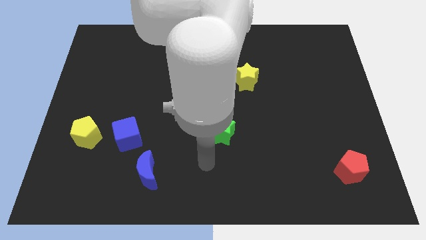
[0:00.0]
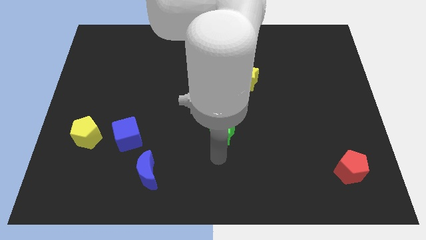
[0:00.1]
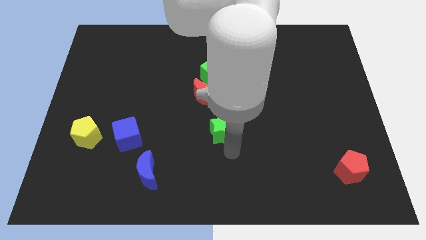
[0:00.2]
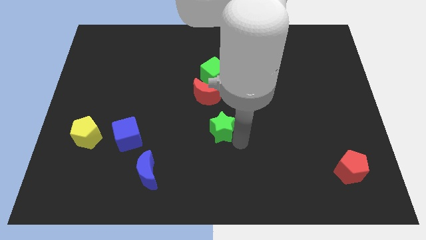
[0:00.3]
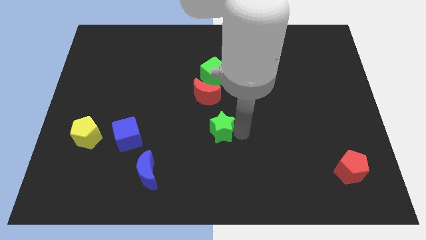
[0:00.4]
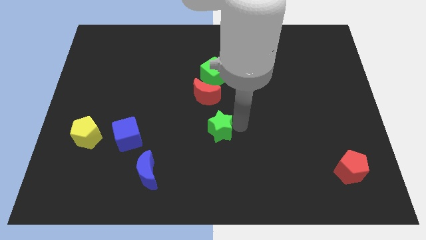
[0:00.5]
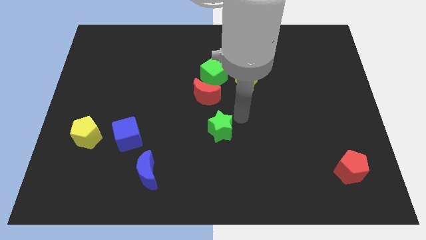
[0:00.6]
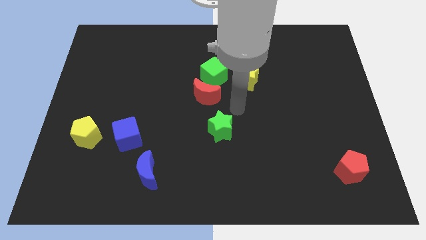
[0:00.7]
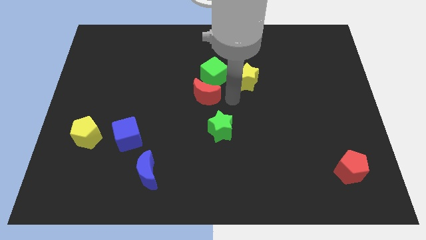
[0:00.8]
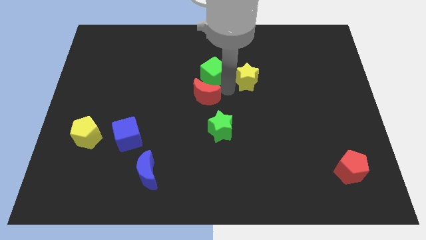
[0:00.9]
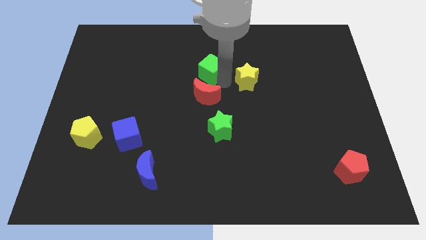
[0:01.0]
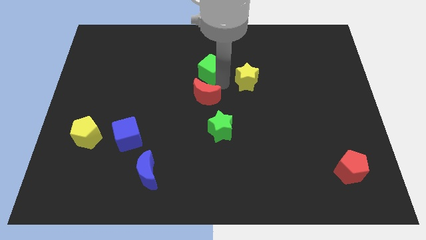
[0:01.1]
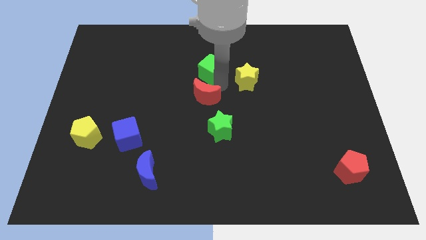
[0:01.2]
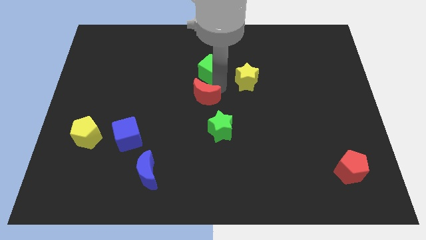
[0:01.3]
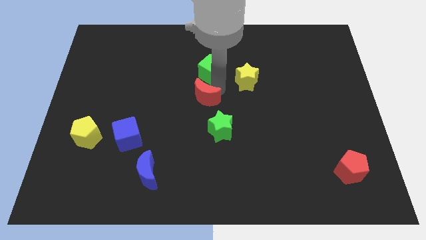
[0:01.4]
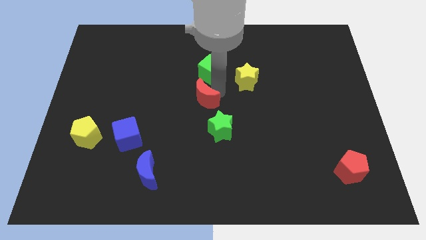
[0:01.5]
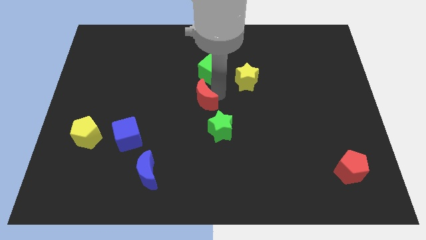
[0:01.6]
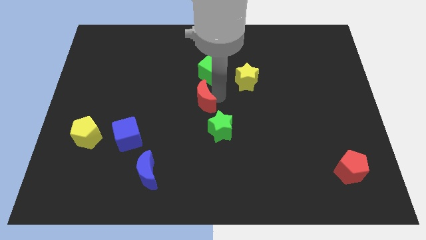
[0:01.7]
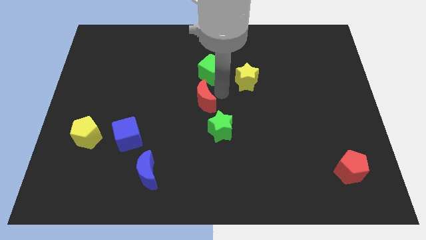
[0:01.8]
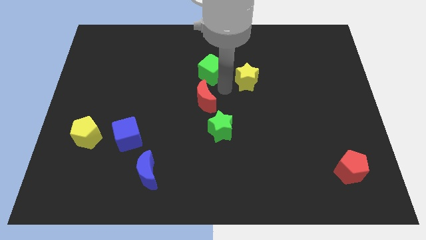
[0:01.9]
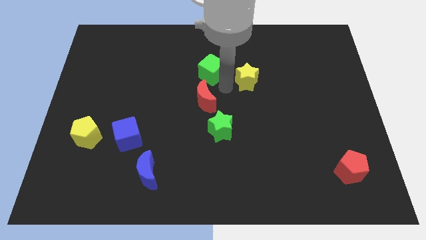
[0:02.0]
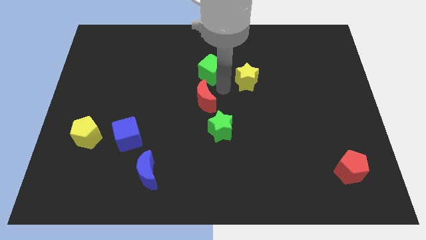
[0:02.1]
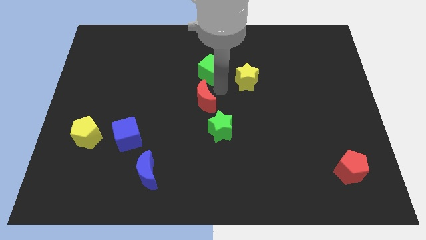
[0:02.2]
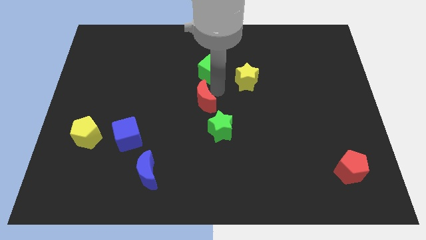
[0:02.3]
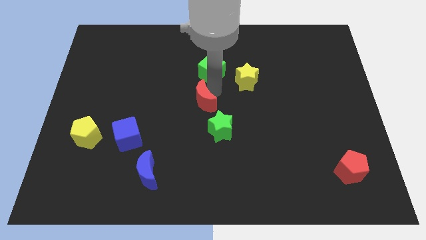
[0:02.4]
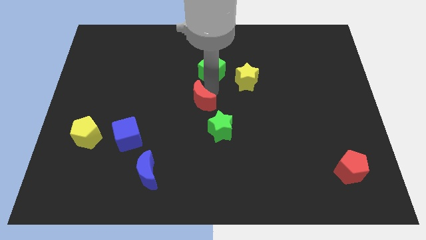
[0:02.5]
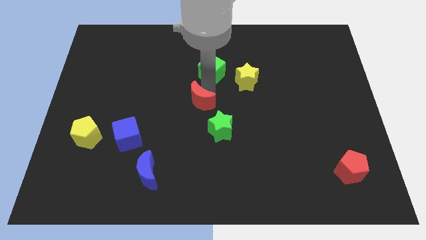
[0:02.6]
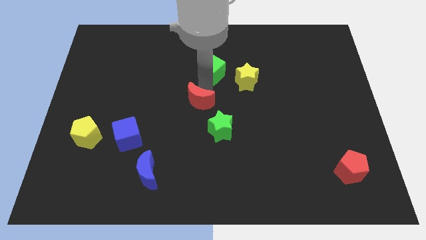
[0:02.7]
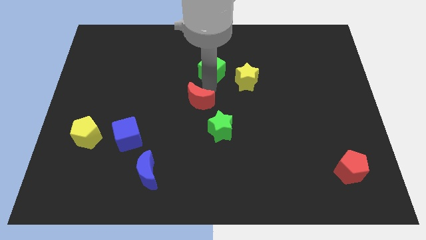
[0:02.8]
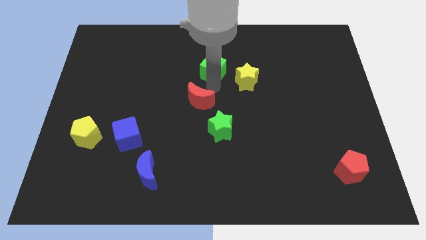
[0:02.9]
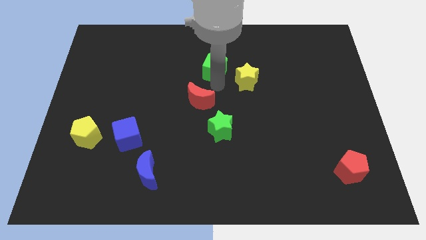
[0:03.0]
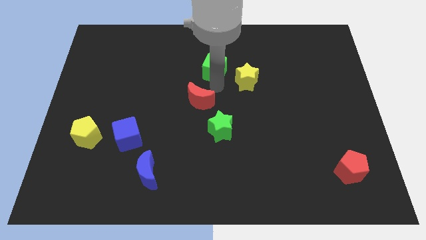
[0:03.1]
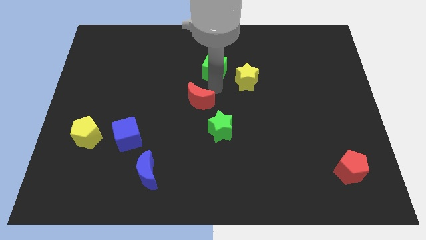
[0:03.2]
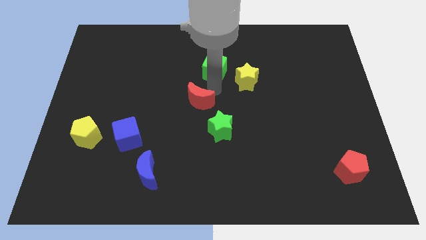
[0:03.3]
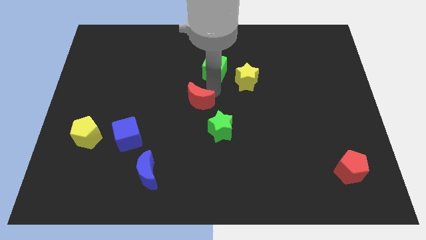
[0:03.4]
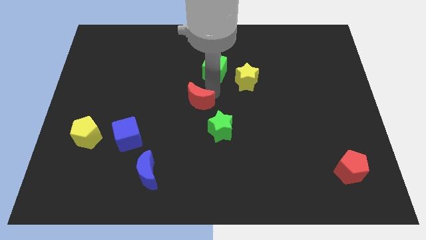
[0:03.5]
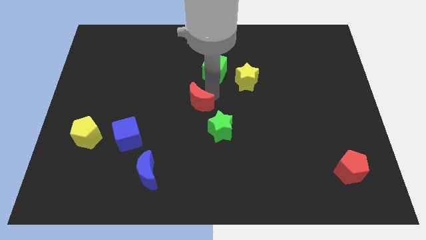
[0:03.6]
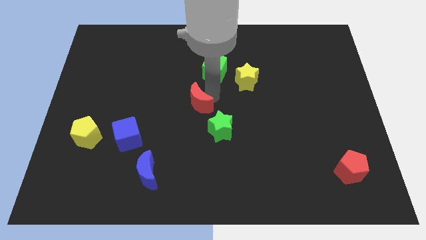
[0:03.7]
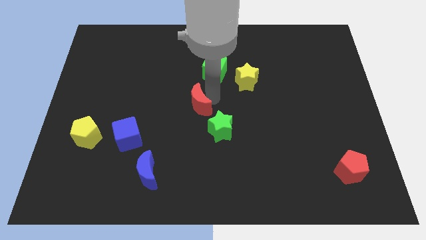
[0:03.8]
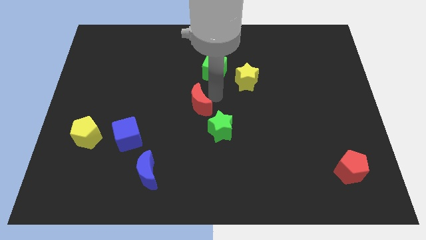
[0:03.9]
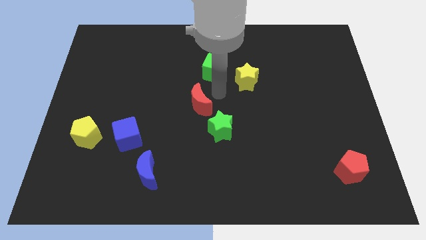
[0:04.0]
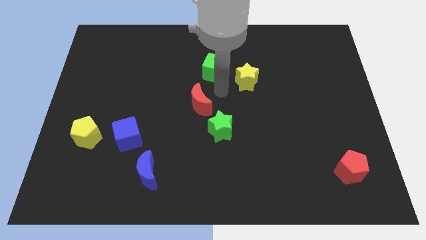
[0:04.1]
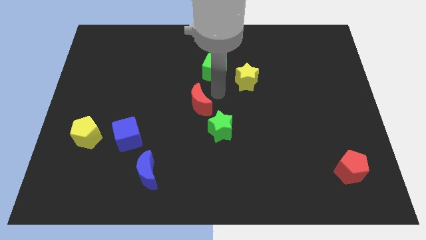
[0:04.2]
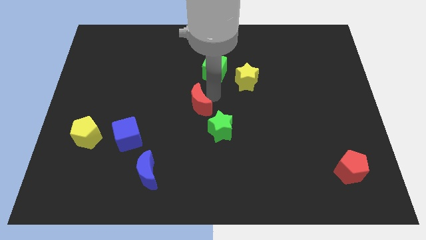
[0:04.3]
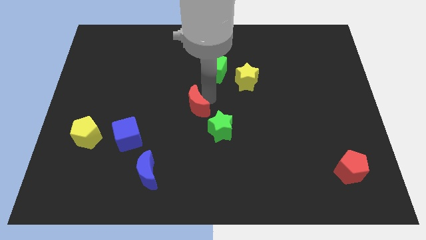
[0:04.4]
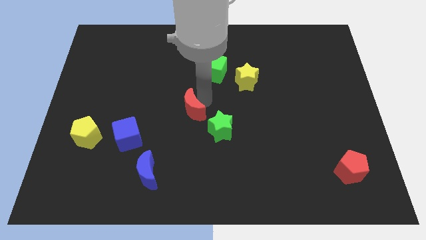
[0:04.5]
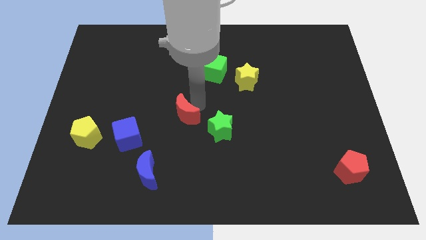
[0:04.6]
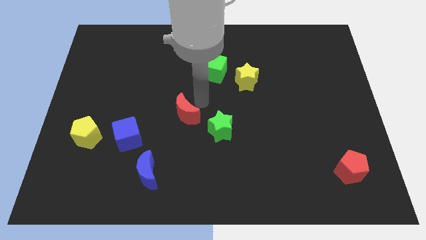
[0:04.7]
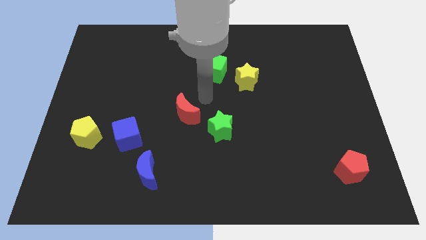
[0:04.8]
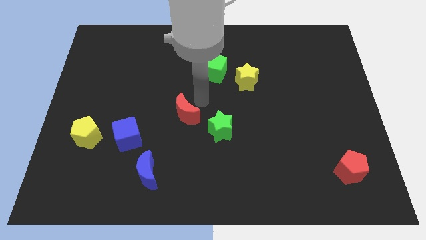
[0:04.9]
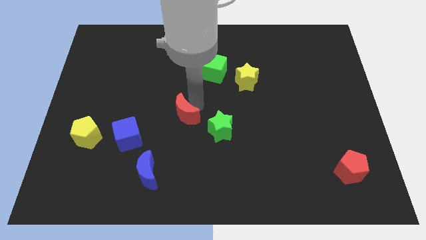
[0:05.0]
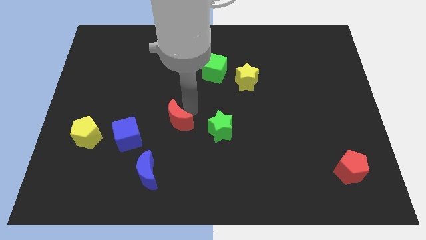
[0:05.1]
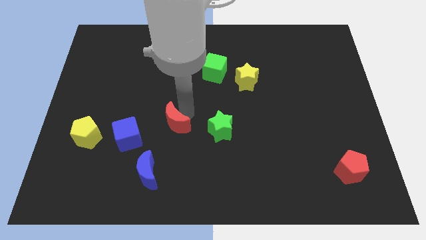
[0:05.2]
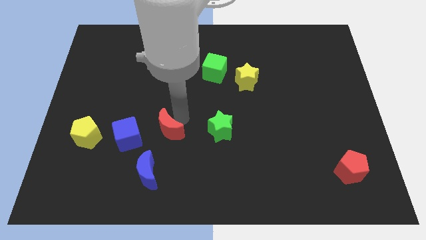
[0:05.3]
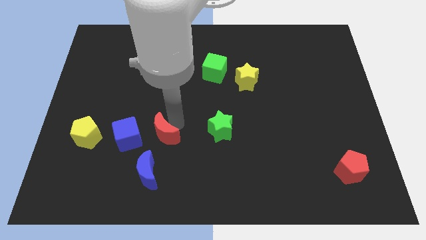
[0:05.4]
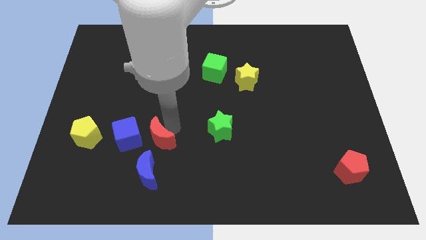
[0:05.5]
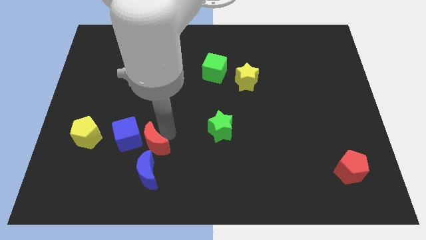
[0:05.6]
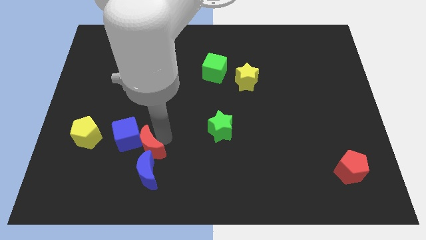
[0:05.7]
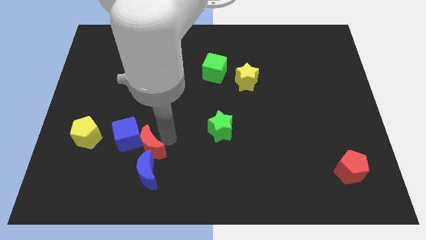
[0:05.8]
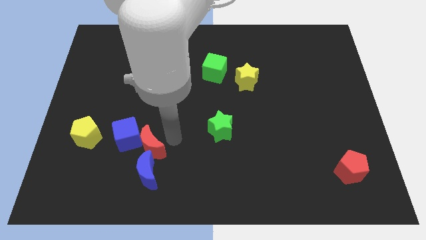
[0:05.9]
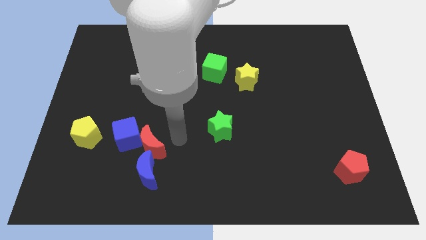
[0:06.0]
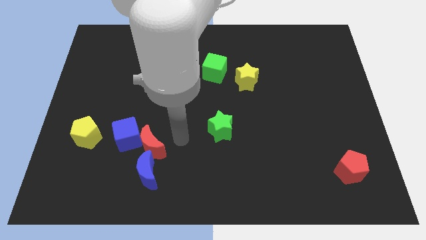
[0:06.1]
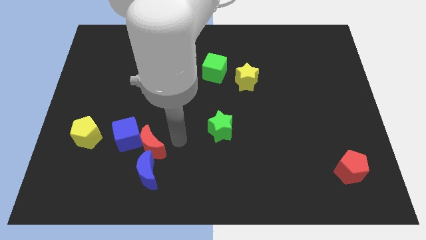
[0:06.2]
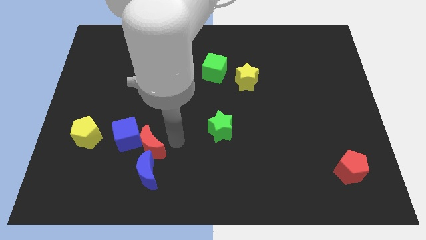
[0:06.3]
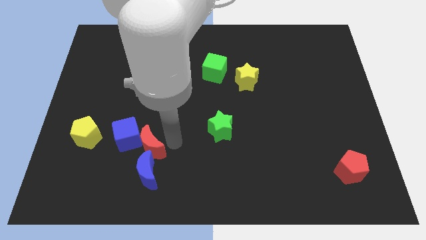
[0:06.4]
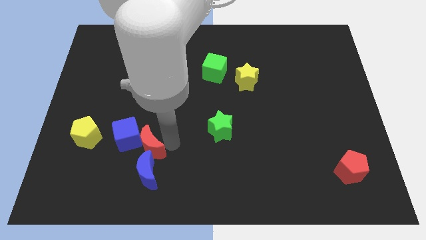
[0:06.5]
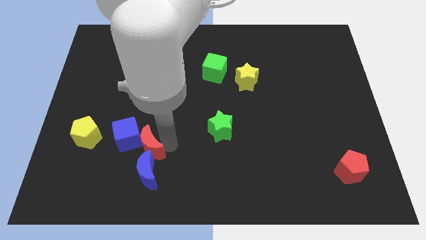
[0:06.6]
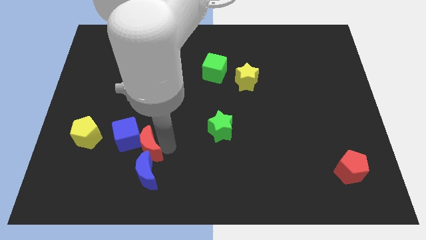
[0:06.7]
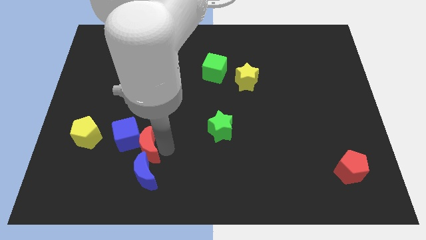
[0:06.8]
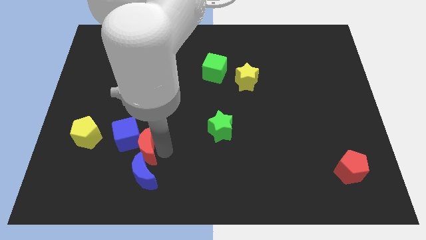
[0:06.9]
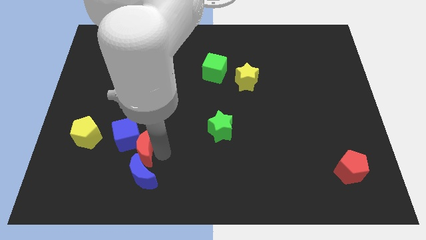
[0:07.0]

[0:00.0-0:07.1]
put the red moon below the blue cube

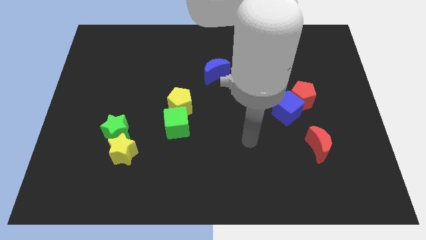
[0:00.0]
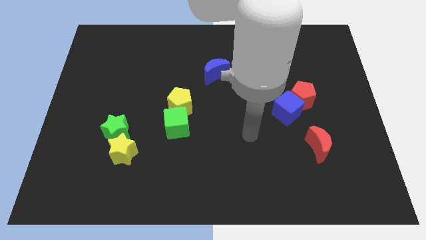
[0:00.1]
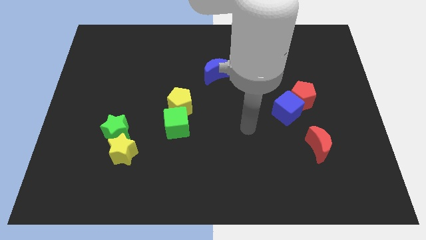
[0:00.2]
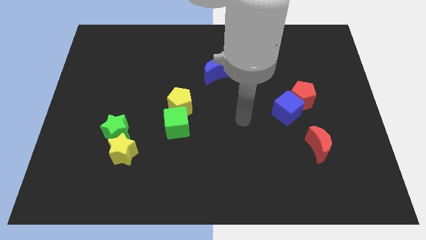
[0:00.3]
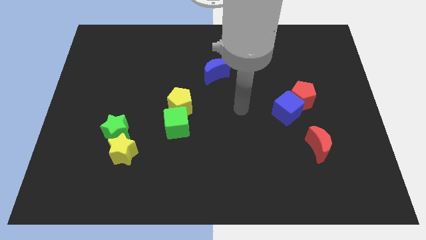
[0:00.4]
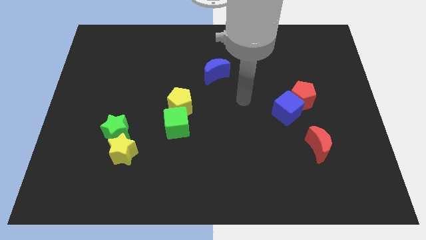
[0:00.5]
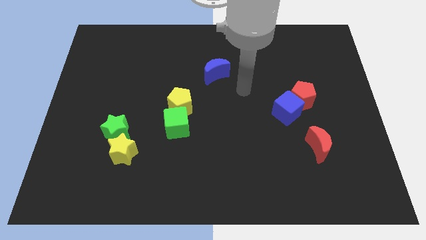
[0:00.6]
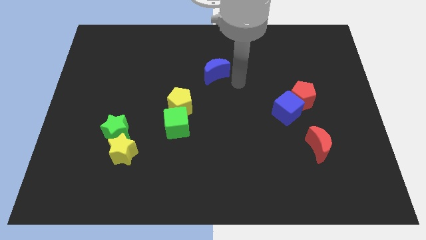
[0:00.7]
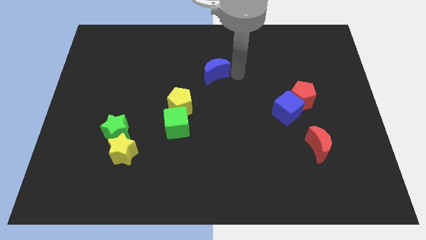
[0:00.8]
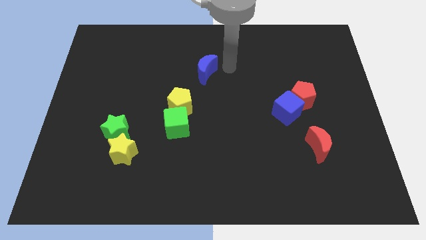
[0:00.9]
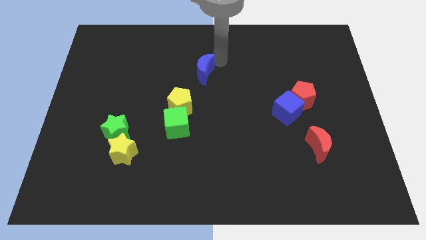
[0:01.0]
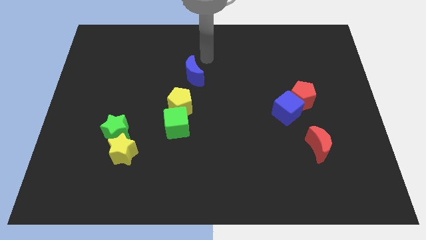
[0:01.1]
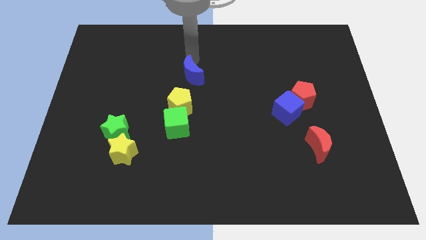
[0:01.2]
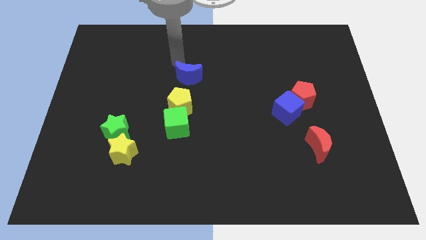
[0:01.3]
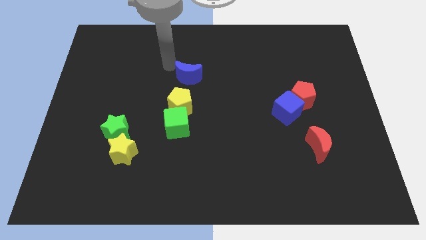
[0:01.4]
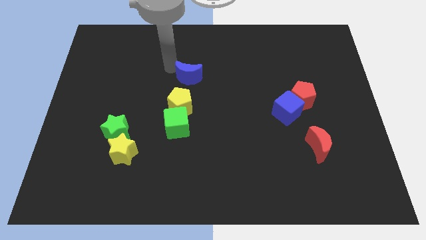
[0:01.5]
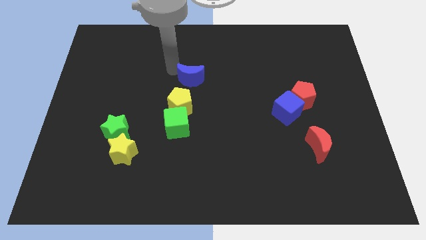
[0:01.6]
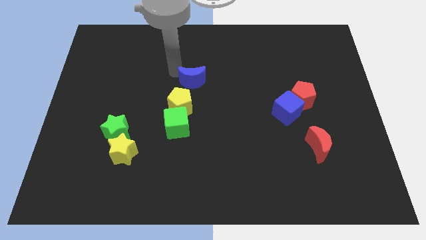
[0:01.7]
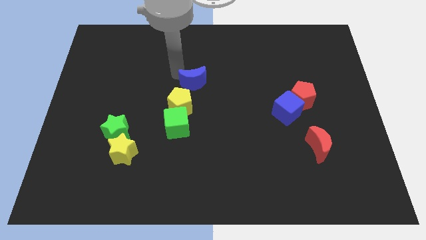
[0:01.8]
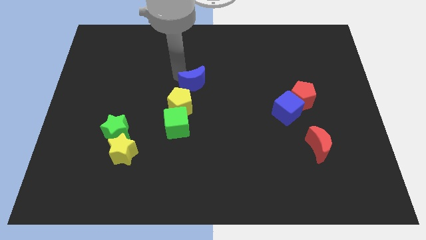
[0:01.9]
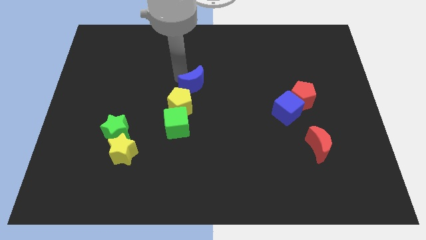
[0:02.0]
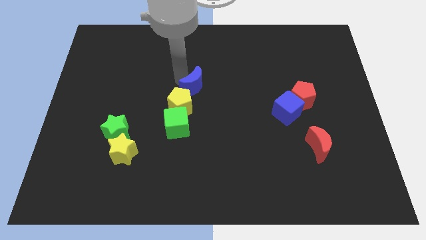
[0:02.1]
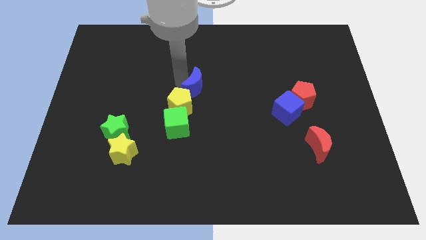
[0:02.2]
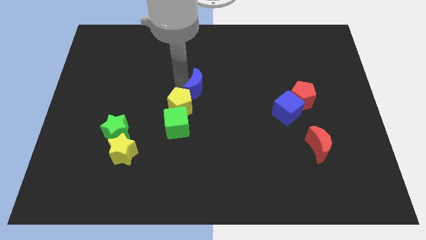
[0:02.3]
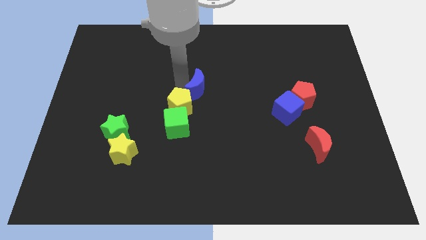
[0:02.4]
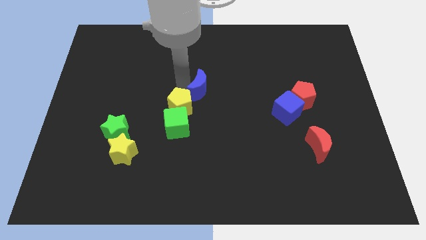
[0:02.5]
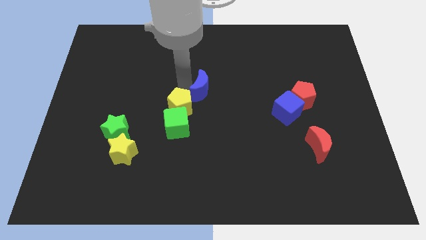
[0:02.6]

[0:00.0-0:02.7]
push the blue moon diagonally up and to the right of the green cube
